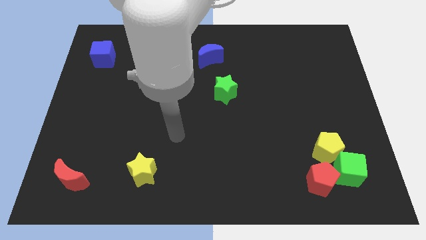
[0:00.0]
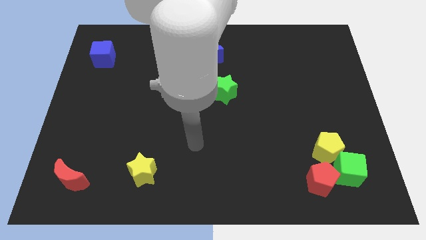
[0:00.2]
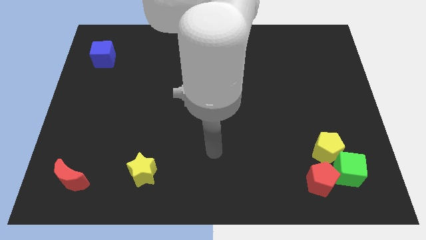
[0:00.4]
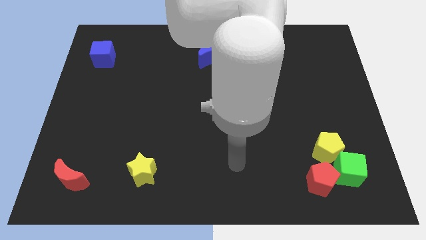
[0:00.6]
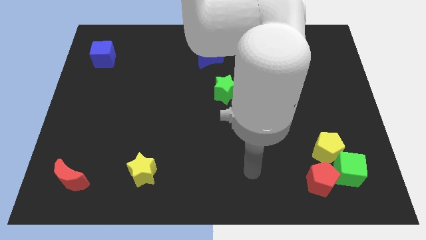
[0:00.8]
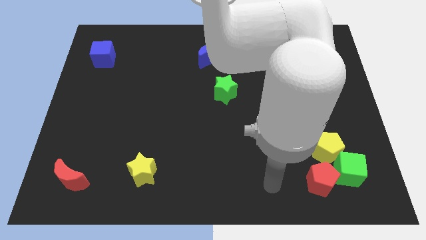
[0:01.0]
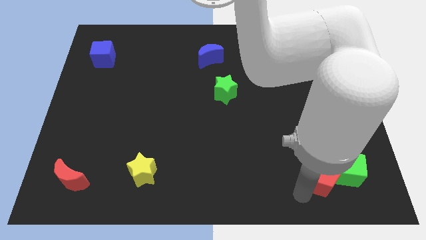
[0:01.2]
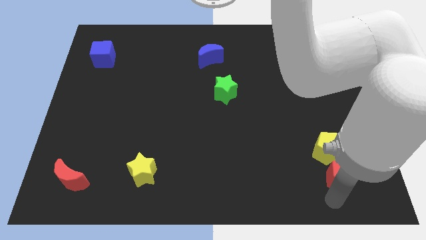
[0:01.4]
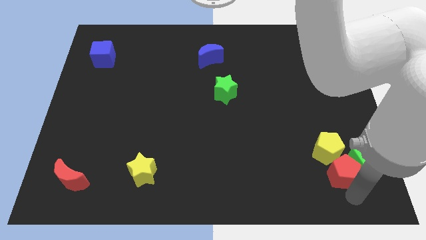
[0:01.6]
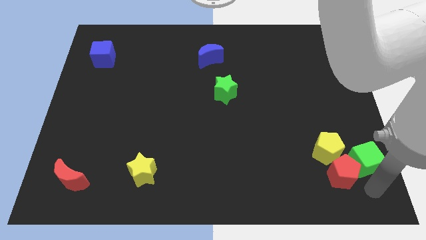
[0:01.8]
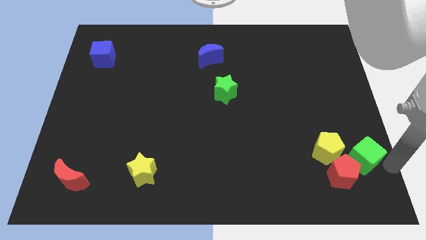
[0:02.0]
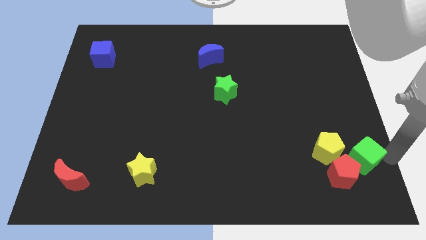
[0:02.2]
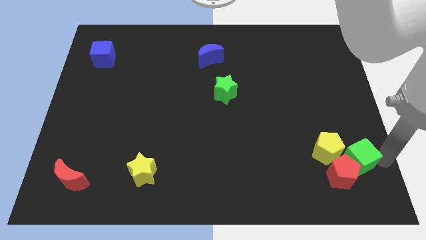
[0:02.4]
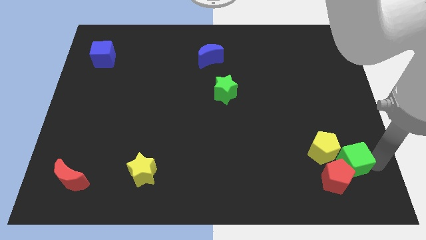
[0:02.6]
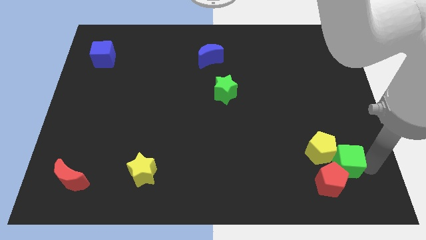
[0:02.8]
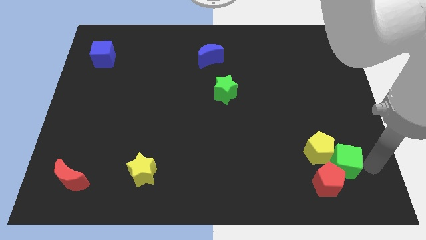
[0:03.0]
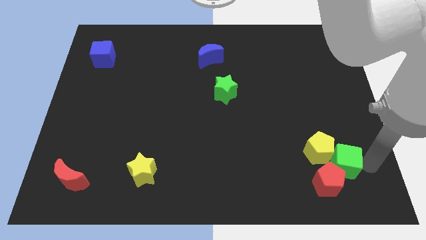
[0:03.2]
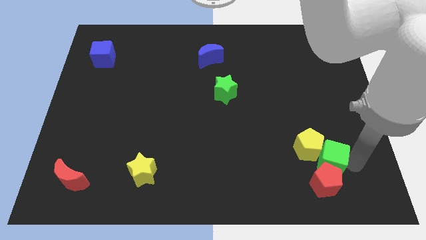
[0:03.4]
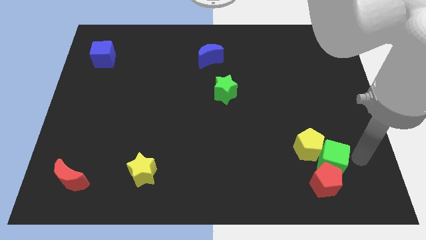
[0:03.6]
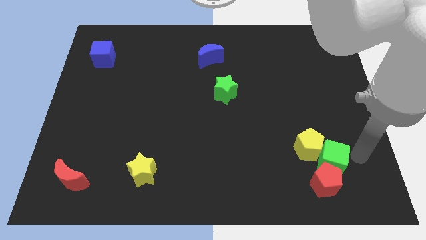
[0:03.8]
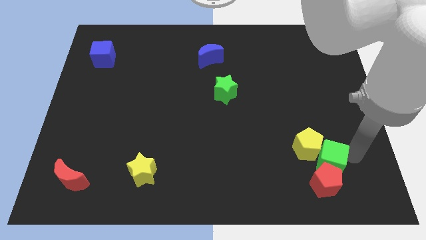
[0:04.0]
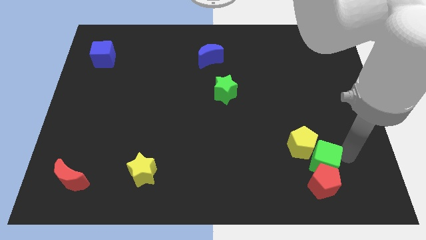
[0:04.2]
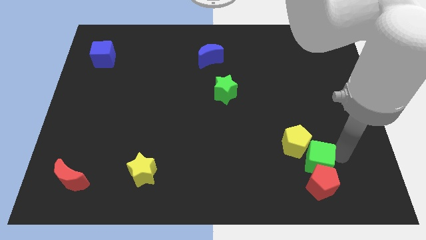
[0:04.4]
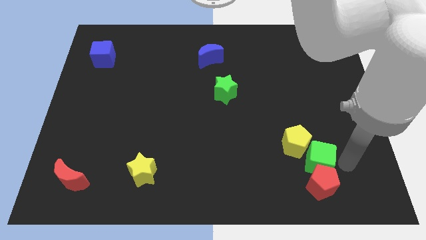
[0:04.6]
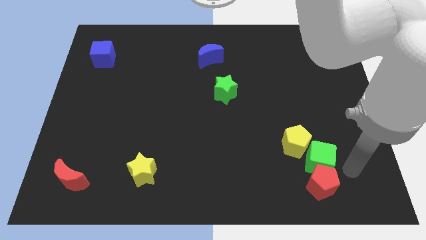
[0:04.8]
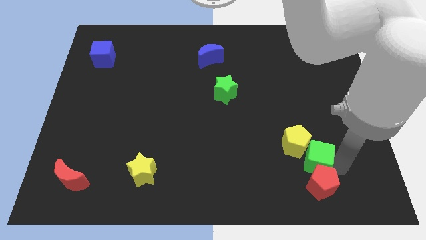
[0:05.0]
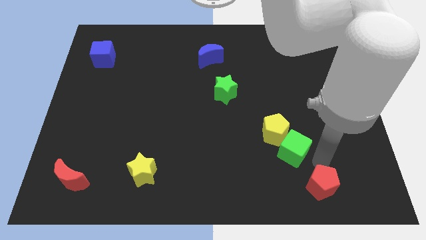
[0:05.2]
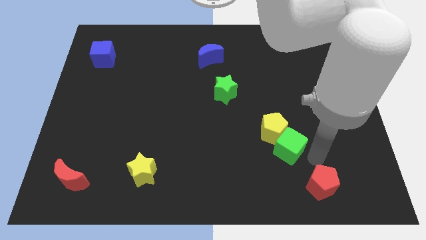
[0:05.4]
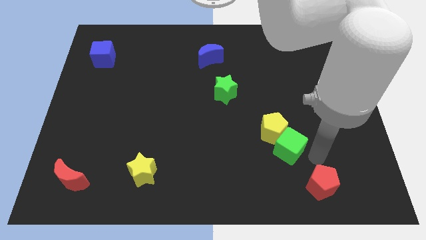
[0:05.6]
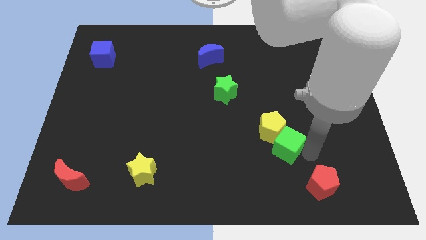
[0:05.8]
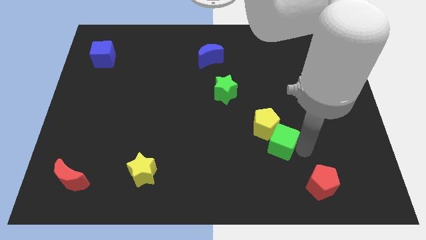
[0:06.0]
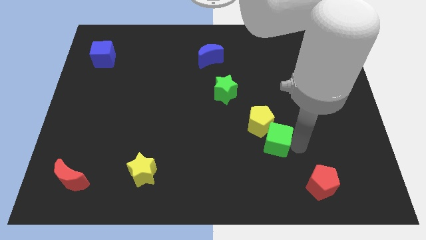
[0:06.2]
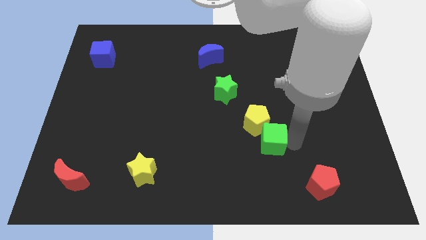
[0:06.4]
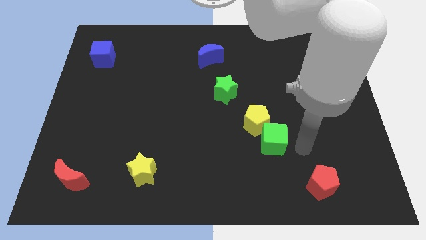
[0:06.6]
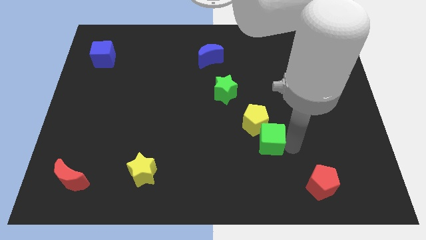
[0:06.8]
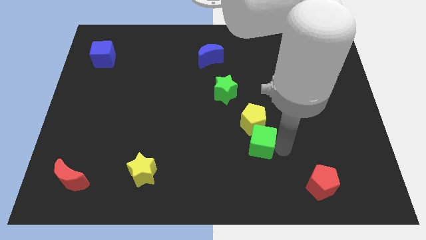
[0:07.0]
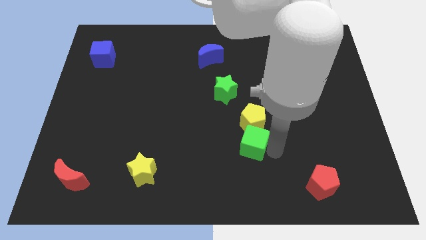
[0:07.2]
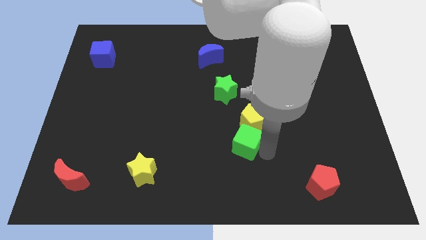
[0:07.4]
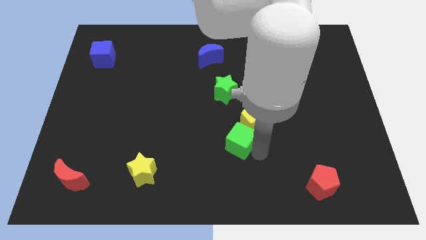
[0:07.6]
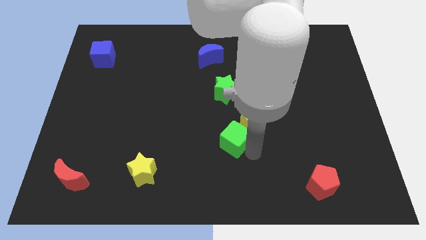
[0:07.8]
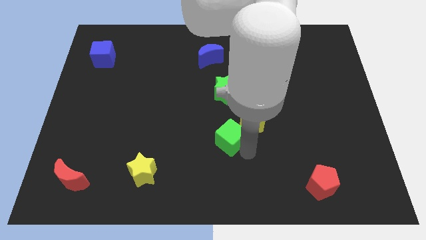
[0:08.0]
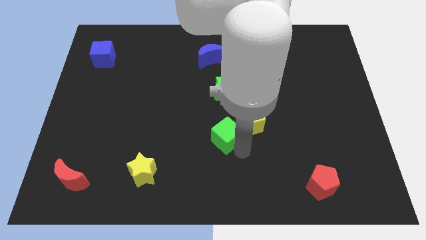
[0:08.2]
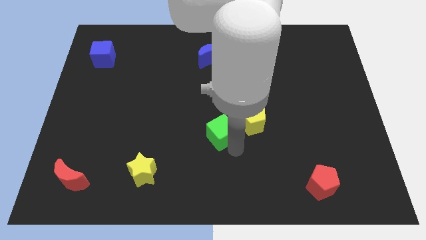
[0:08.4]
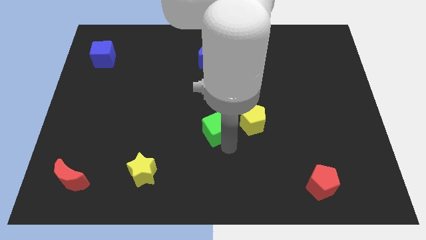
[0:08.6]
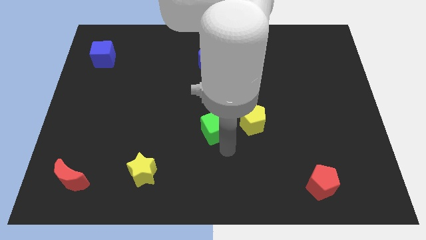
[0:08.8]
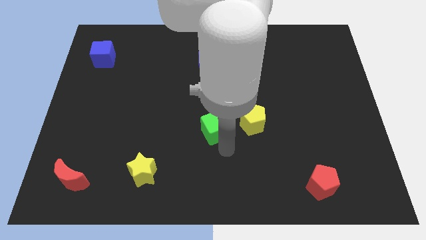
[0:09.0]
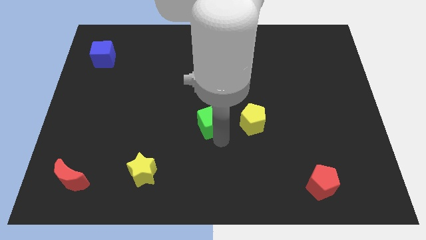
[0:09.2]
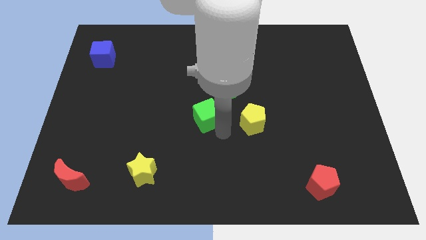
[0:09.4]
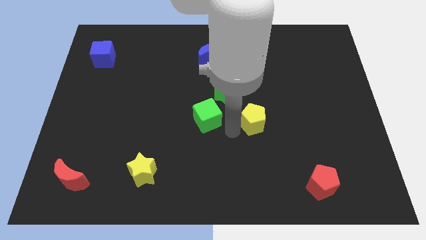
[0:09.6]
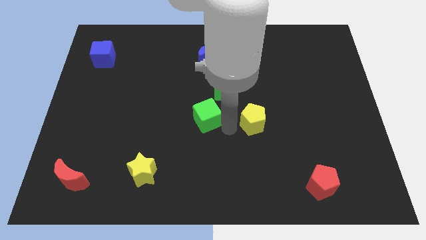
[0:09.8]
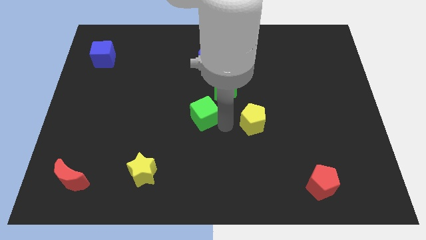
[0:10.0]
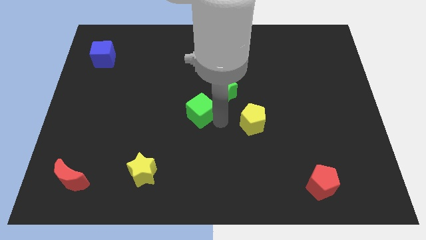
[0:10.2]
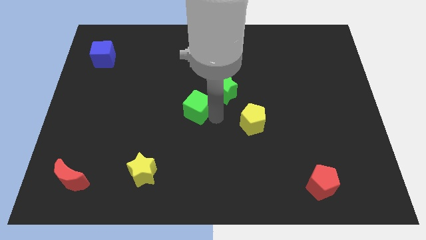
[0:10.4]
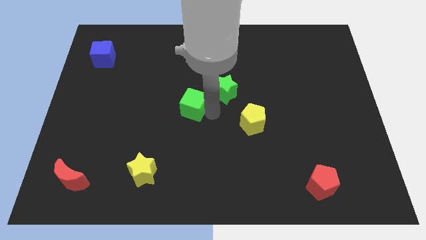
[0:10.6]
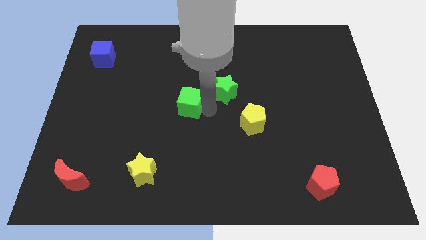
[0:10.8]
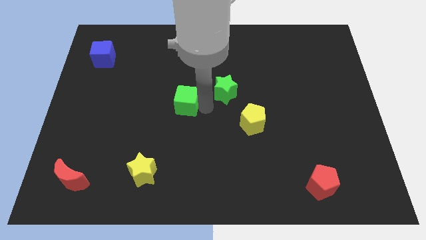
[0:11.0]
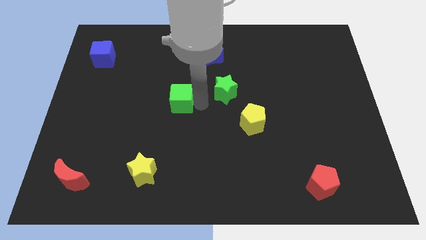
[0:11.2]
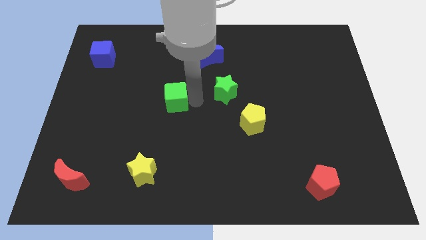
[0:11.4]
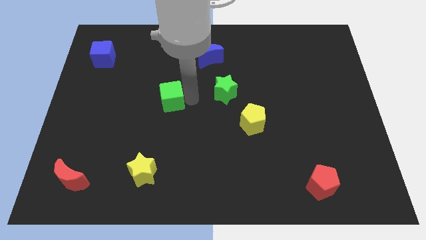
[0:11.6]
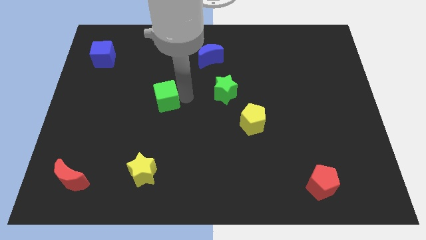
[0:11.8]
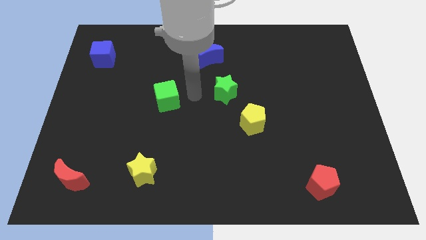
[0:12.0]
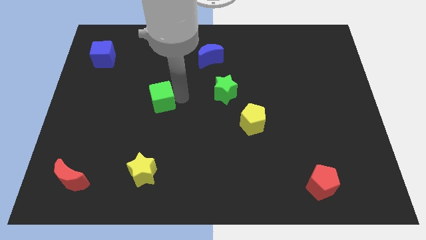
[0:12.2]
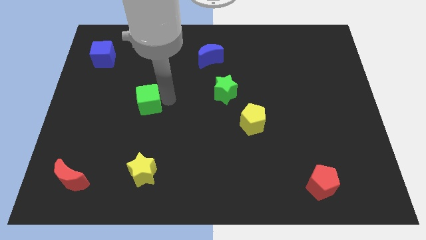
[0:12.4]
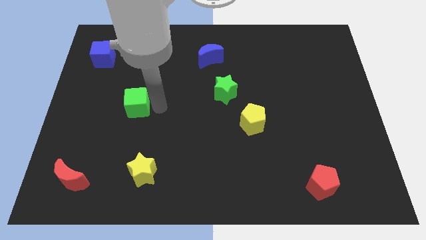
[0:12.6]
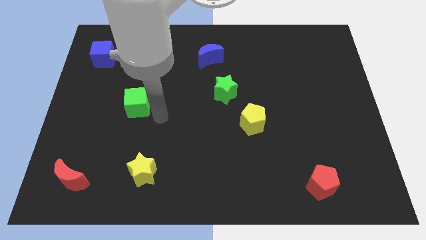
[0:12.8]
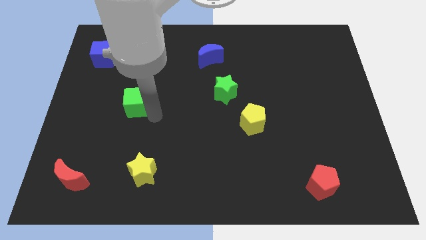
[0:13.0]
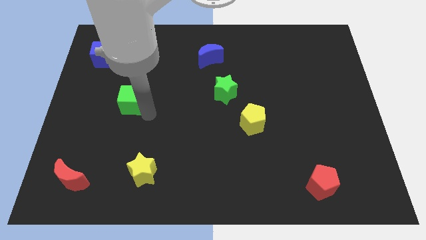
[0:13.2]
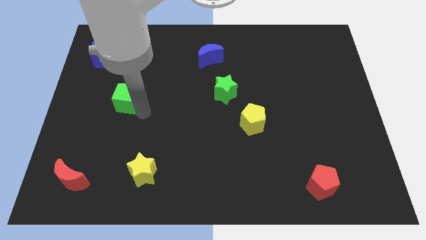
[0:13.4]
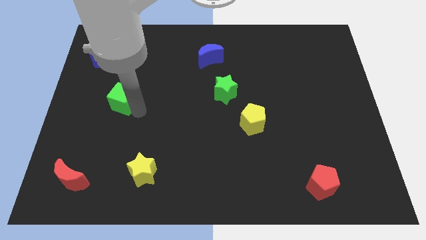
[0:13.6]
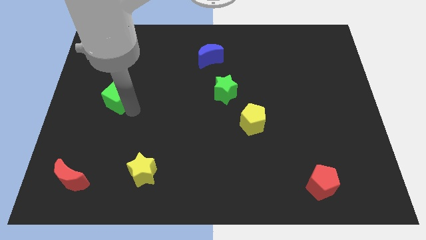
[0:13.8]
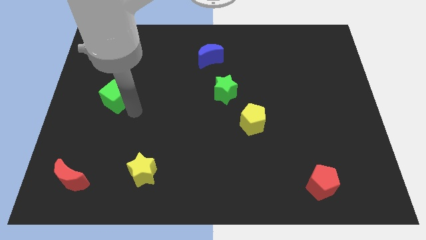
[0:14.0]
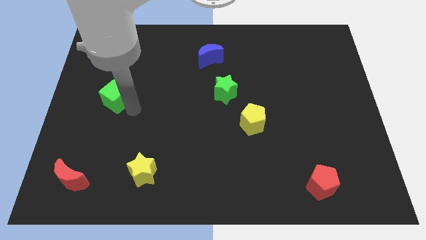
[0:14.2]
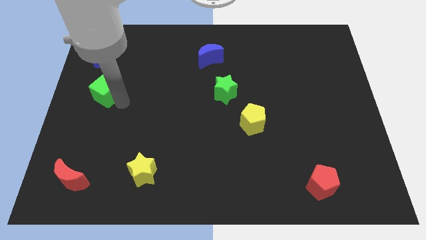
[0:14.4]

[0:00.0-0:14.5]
slide the green cube to the bottom of the blue cube

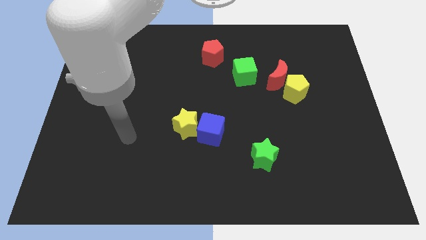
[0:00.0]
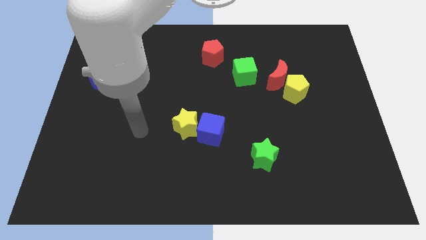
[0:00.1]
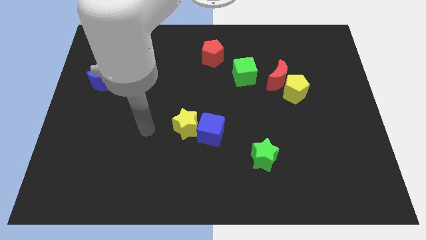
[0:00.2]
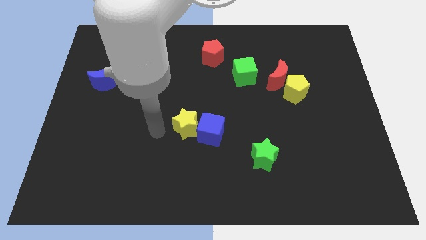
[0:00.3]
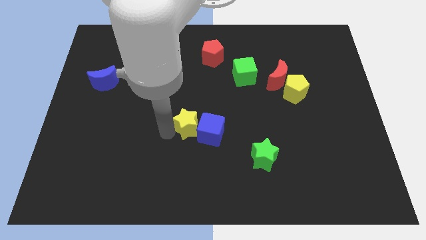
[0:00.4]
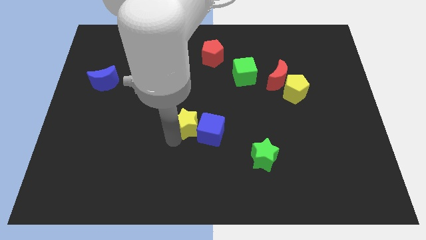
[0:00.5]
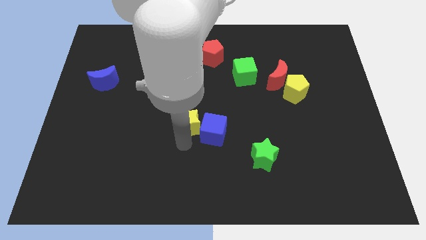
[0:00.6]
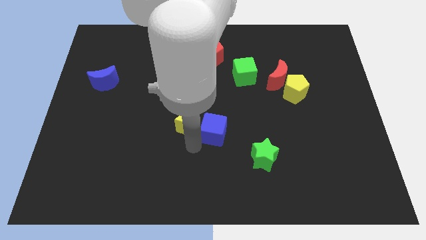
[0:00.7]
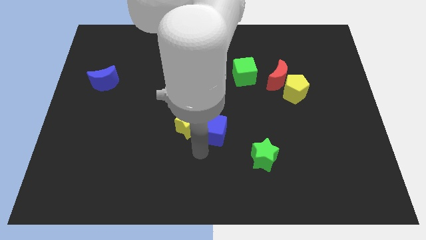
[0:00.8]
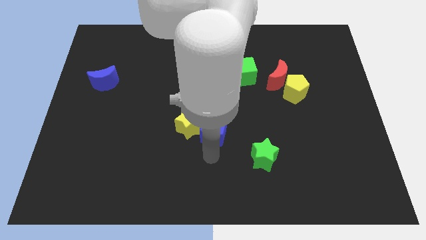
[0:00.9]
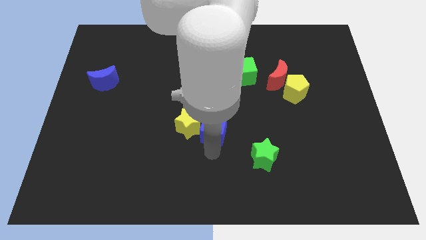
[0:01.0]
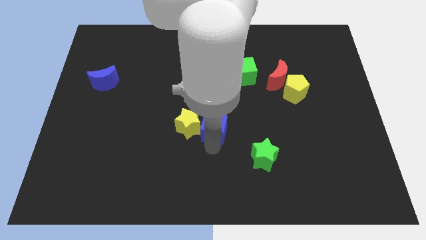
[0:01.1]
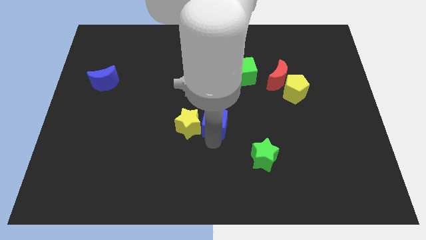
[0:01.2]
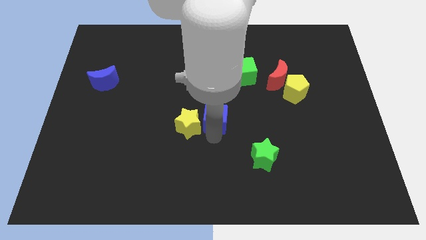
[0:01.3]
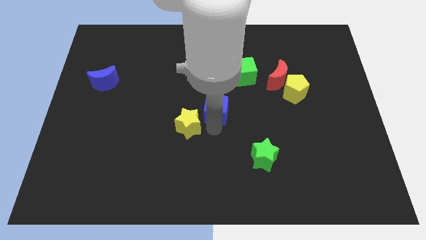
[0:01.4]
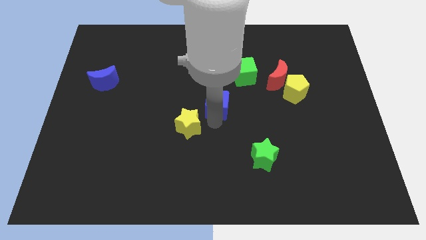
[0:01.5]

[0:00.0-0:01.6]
slide the blue cube to the bottom left side of the green cube
